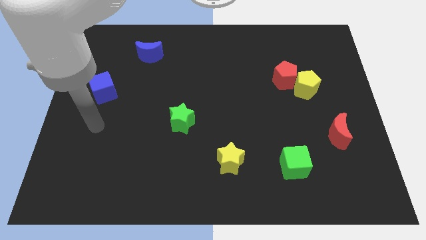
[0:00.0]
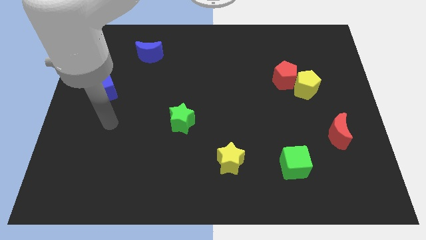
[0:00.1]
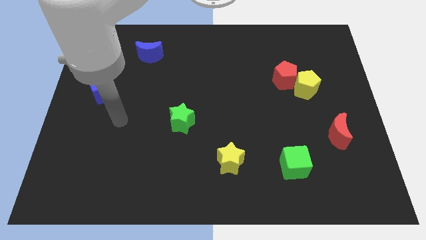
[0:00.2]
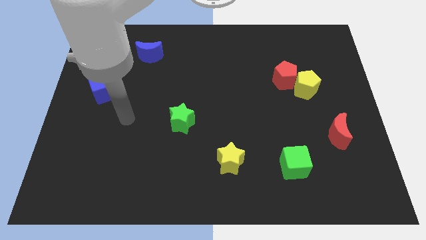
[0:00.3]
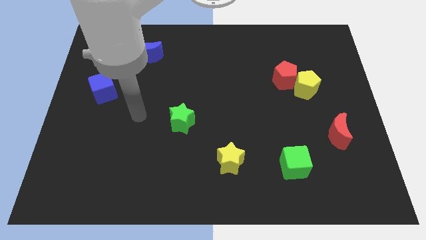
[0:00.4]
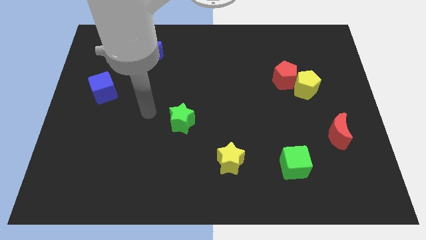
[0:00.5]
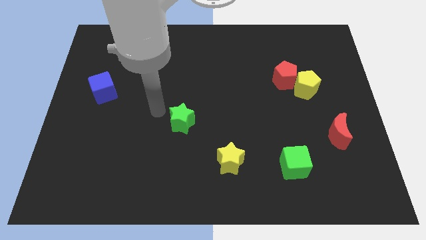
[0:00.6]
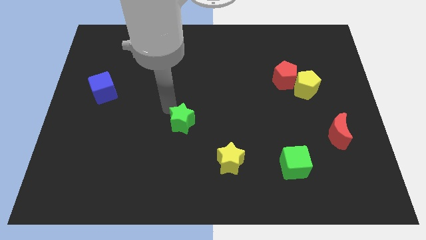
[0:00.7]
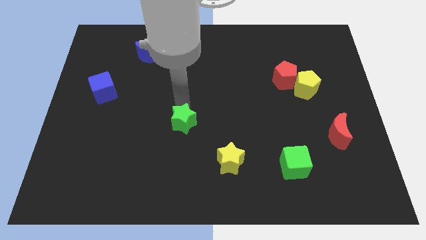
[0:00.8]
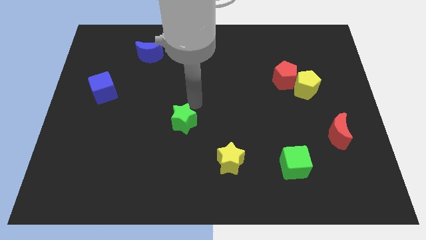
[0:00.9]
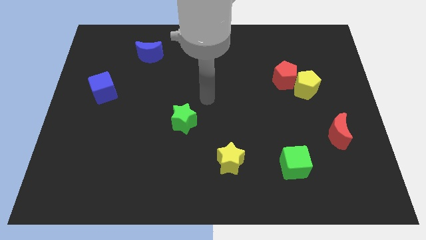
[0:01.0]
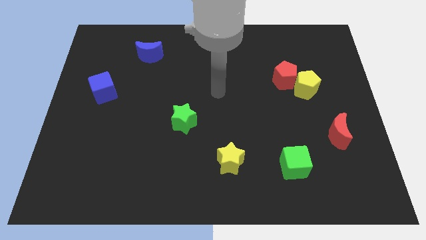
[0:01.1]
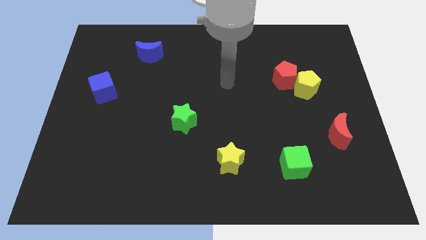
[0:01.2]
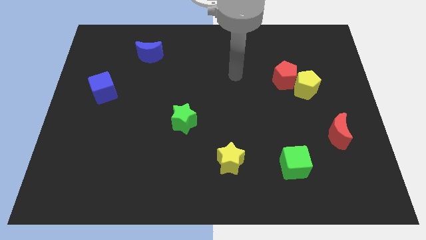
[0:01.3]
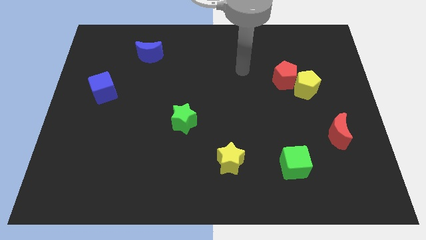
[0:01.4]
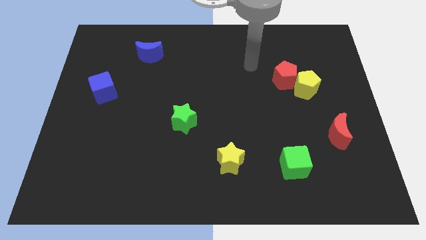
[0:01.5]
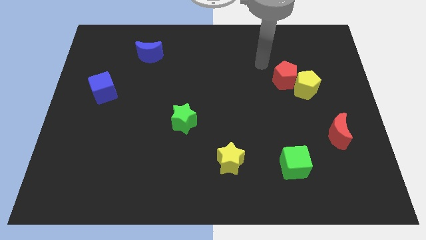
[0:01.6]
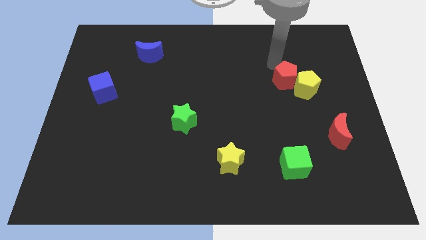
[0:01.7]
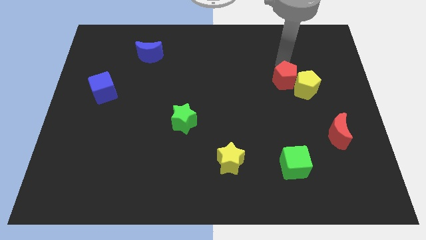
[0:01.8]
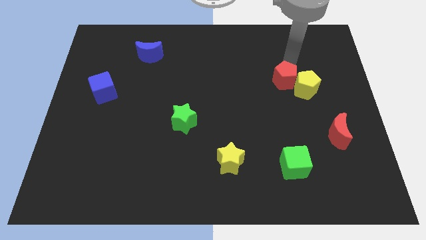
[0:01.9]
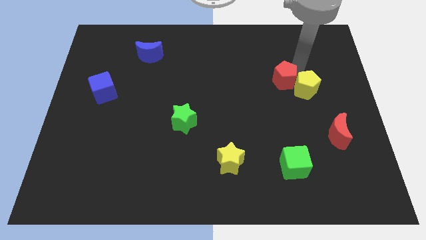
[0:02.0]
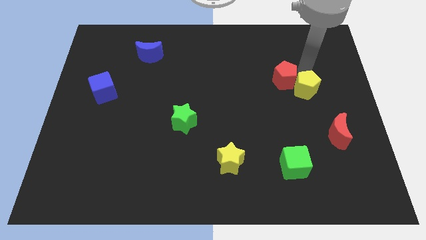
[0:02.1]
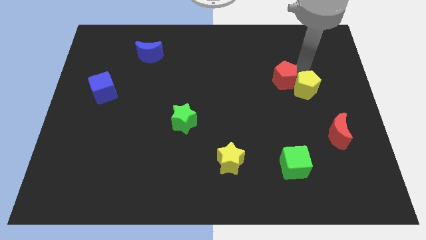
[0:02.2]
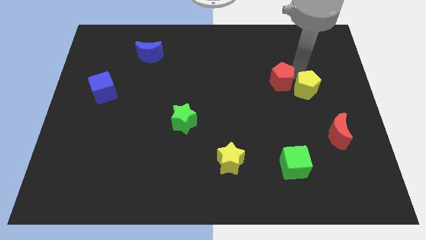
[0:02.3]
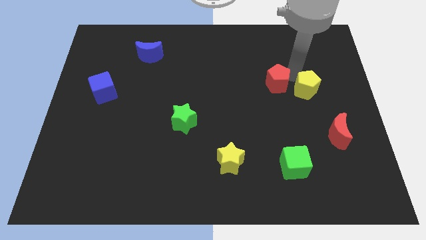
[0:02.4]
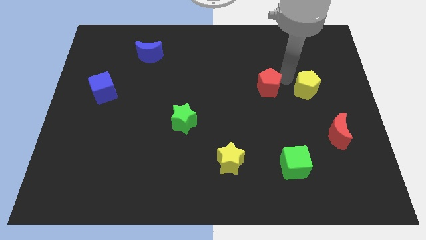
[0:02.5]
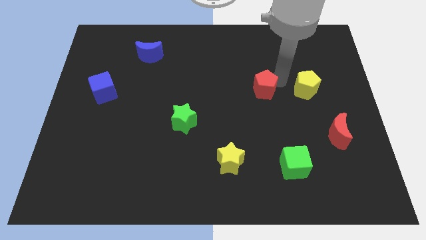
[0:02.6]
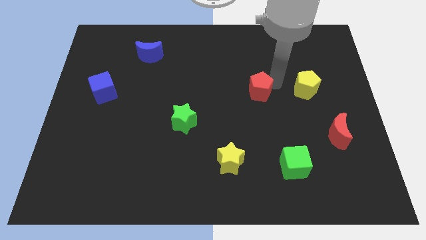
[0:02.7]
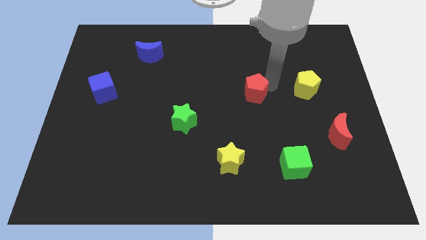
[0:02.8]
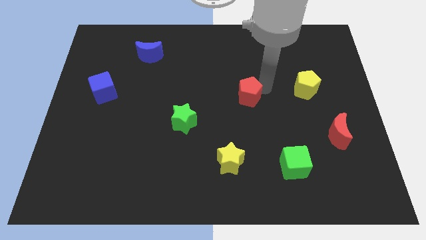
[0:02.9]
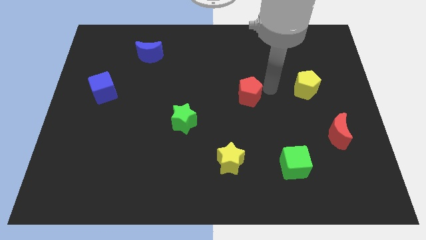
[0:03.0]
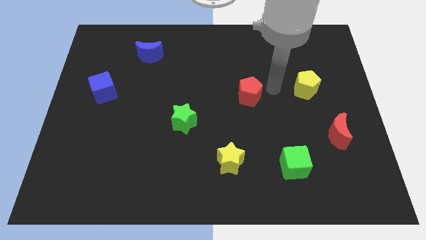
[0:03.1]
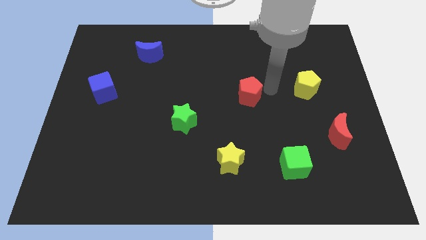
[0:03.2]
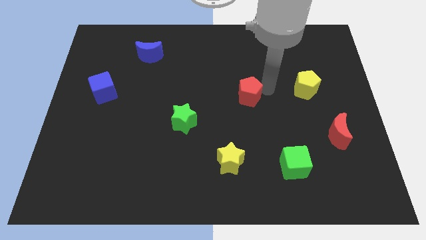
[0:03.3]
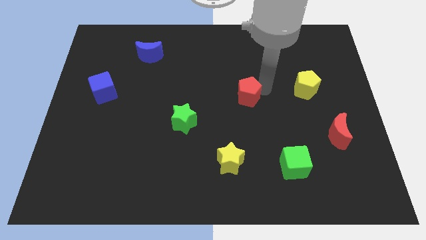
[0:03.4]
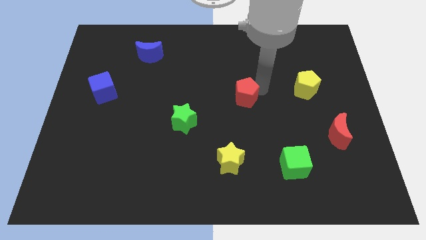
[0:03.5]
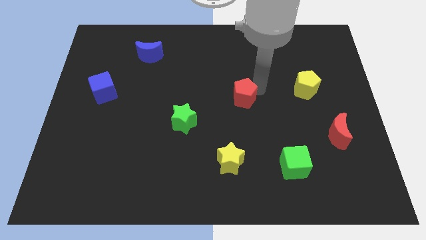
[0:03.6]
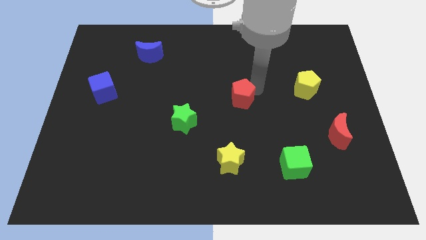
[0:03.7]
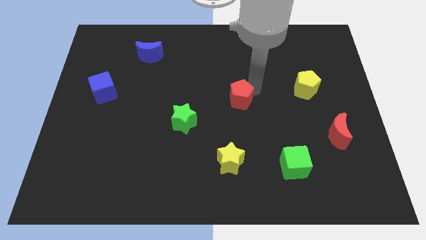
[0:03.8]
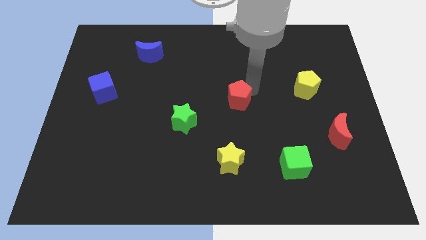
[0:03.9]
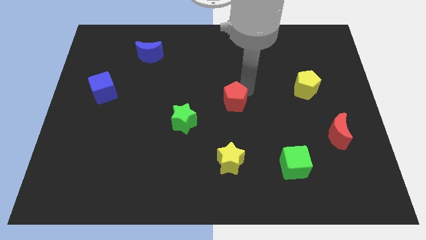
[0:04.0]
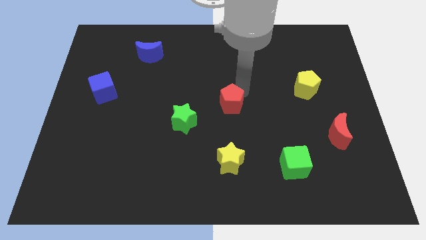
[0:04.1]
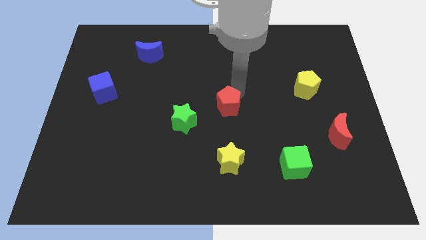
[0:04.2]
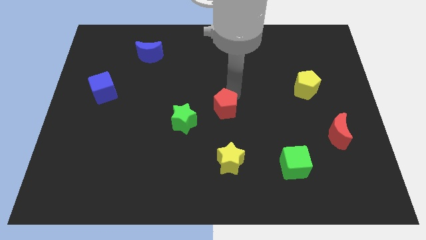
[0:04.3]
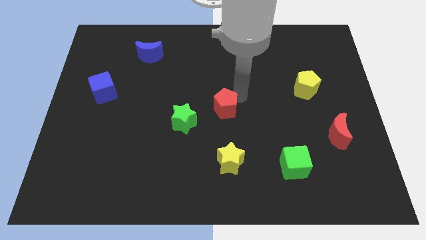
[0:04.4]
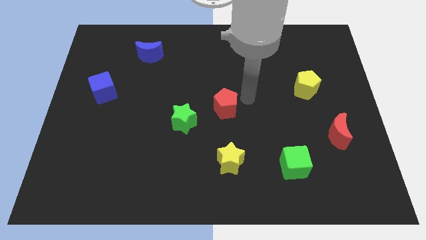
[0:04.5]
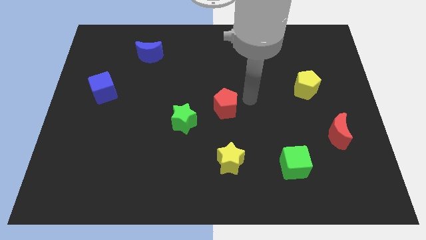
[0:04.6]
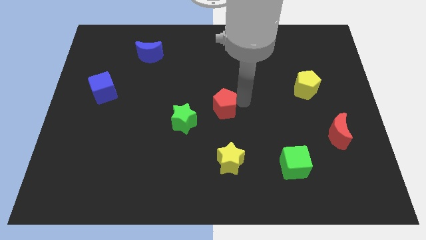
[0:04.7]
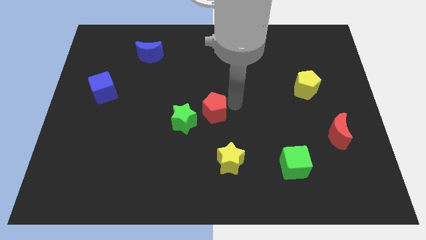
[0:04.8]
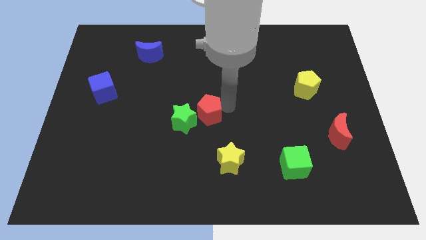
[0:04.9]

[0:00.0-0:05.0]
push the red pentagon to the green star

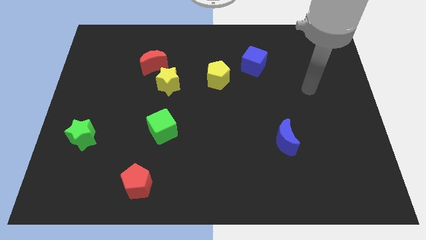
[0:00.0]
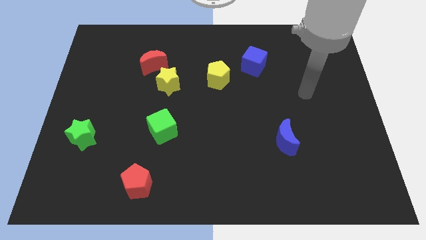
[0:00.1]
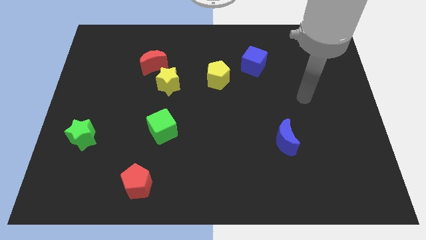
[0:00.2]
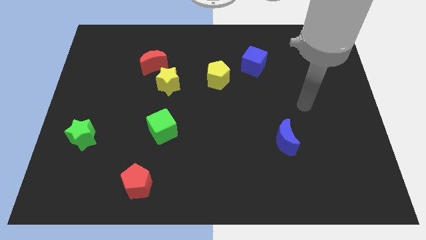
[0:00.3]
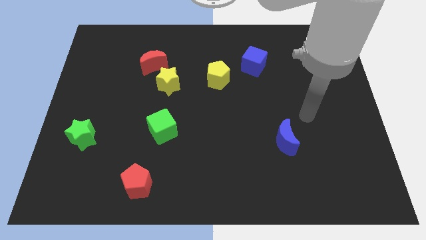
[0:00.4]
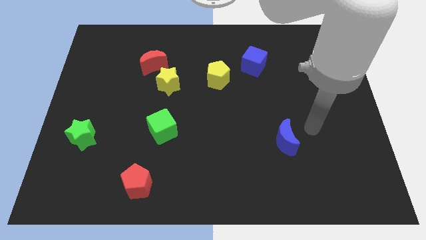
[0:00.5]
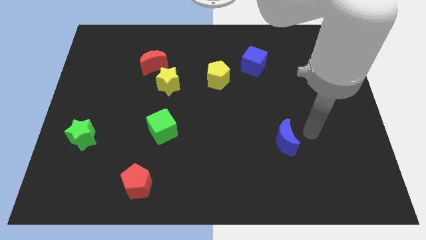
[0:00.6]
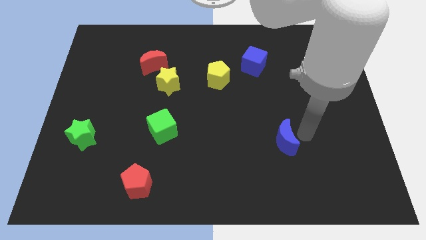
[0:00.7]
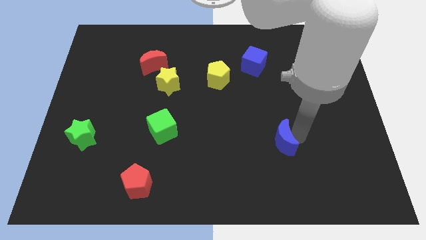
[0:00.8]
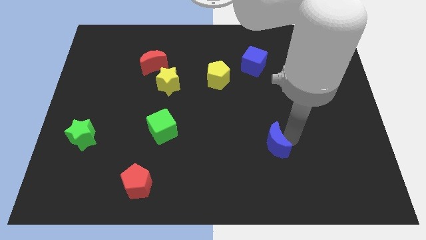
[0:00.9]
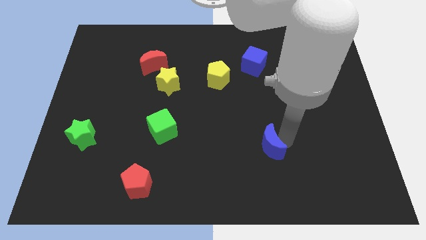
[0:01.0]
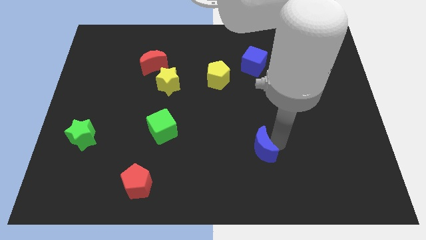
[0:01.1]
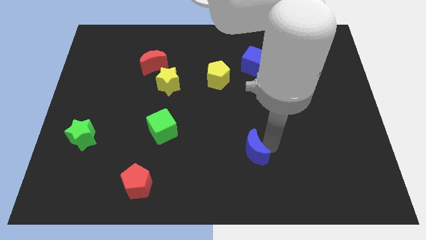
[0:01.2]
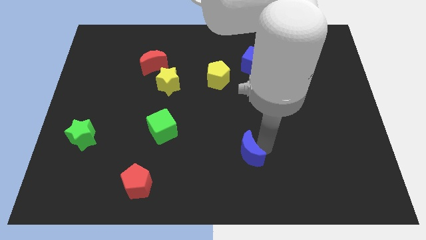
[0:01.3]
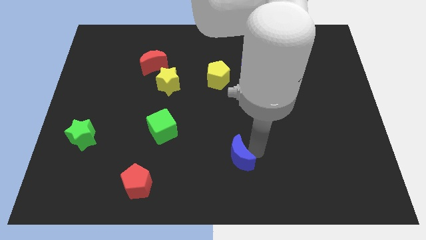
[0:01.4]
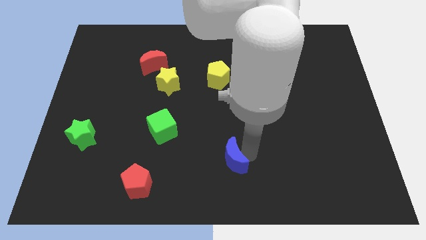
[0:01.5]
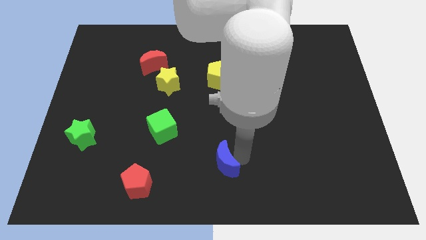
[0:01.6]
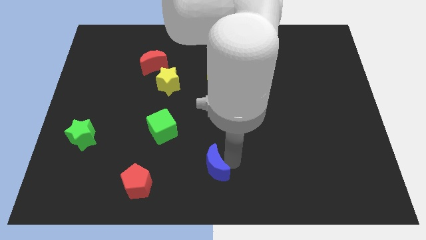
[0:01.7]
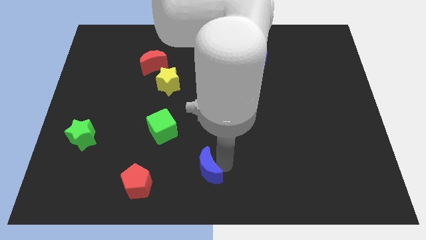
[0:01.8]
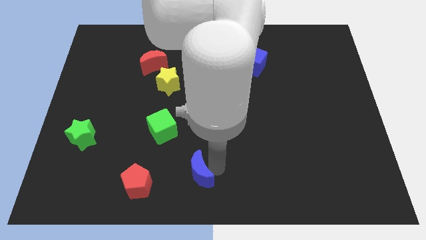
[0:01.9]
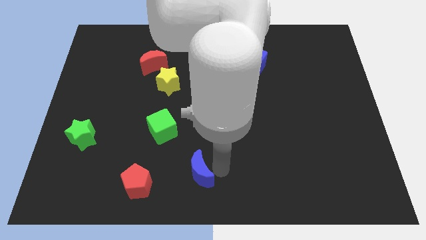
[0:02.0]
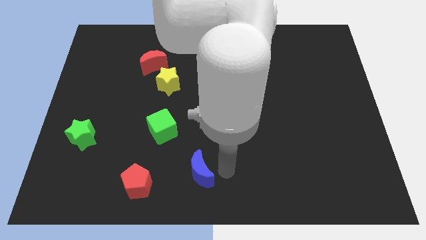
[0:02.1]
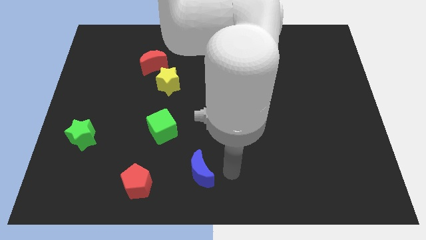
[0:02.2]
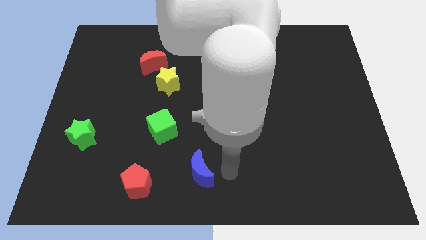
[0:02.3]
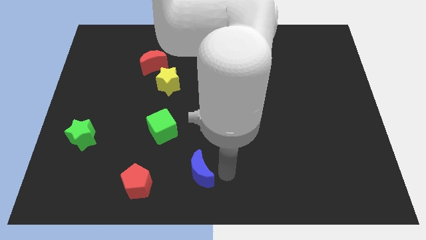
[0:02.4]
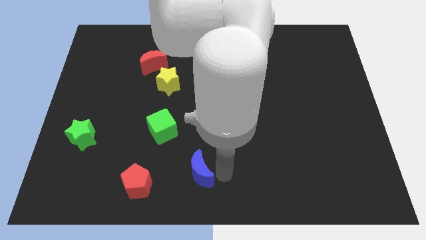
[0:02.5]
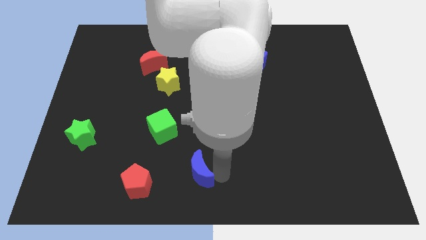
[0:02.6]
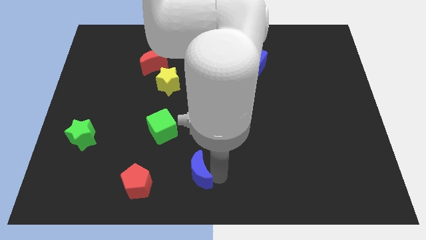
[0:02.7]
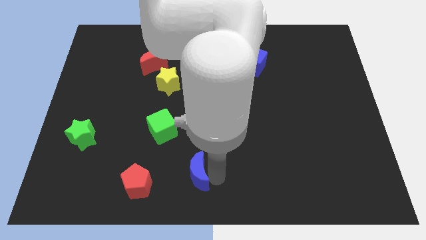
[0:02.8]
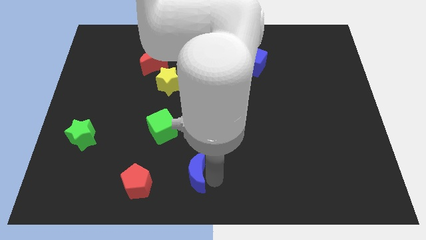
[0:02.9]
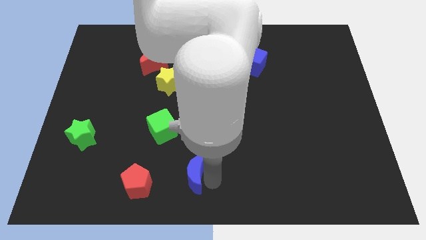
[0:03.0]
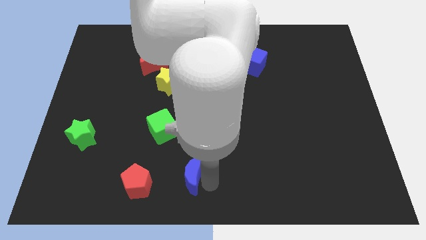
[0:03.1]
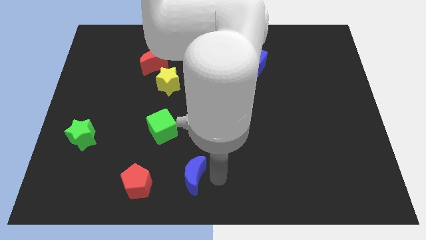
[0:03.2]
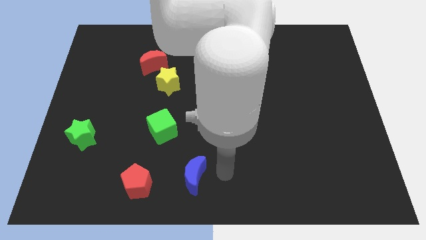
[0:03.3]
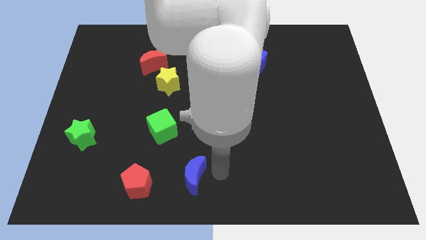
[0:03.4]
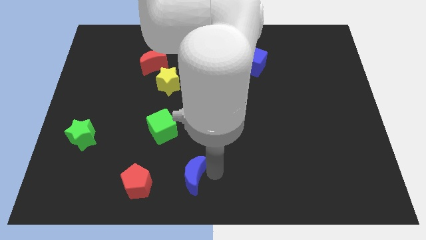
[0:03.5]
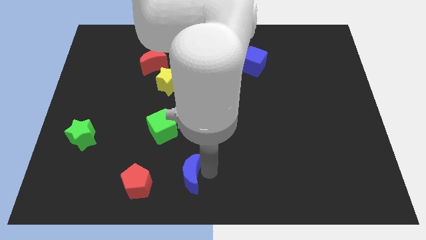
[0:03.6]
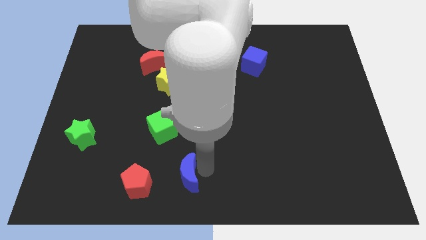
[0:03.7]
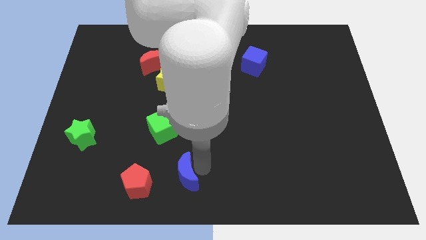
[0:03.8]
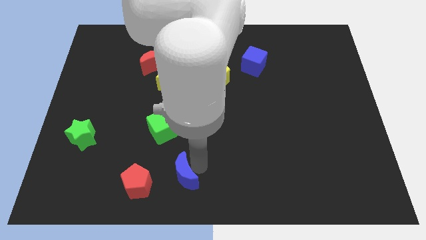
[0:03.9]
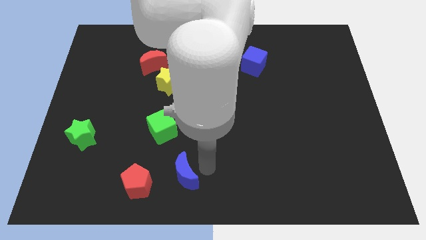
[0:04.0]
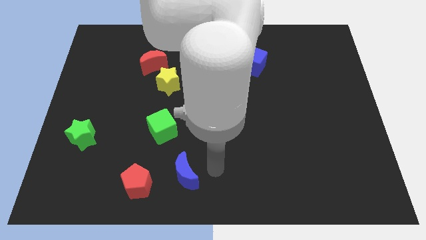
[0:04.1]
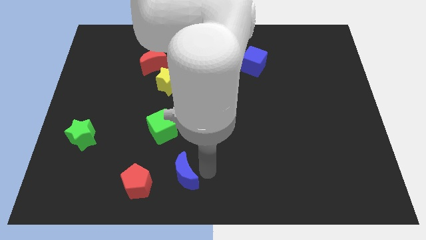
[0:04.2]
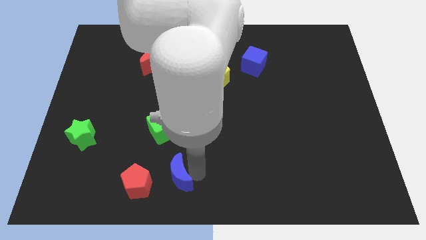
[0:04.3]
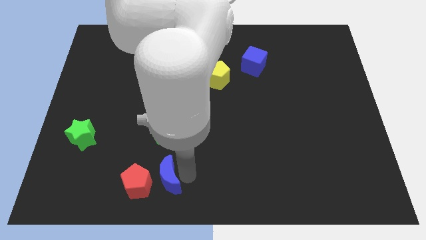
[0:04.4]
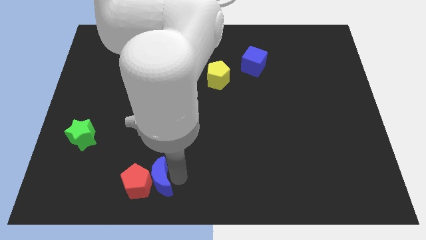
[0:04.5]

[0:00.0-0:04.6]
put the blue moon next to the red pentagon
